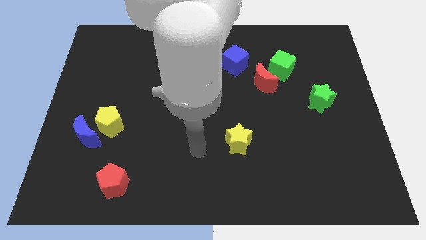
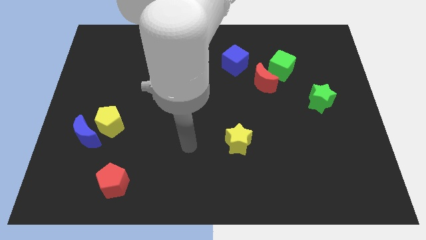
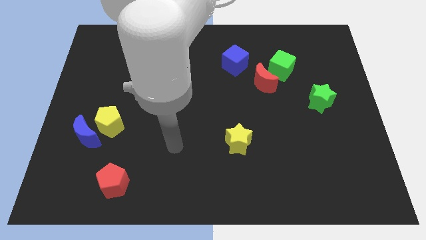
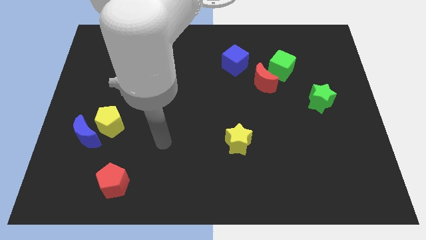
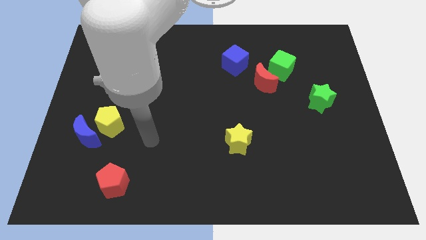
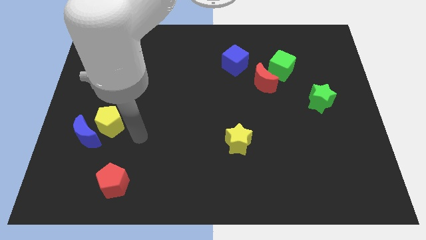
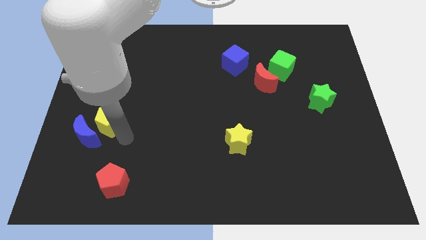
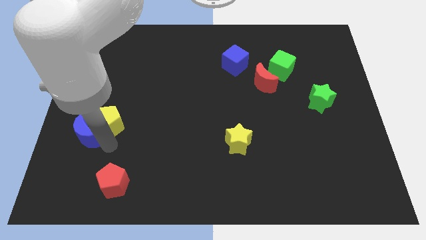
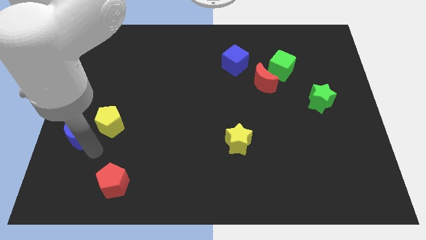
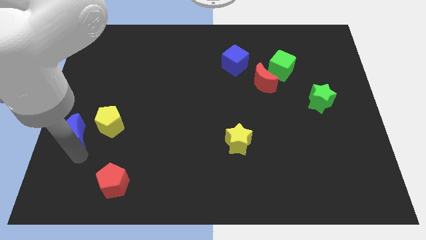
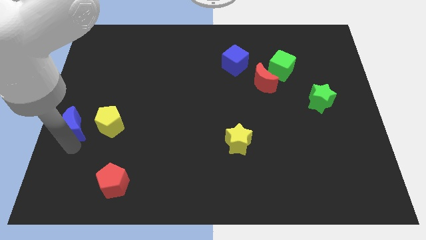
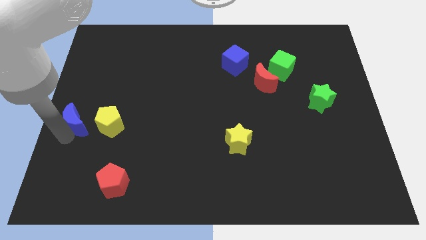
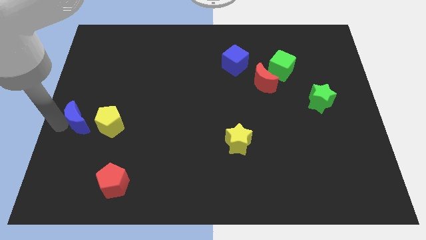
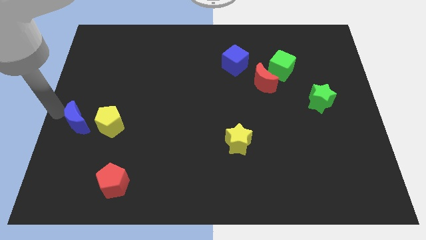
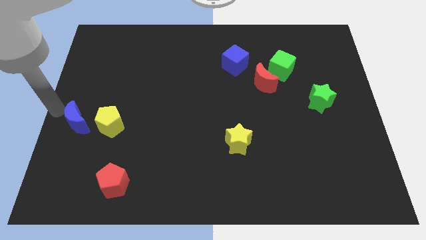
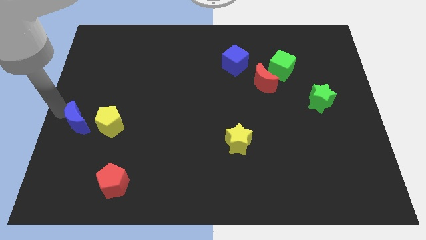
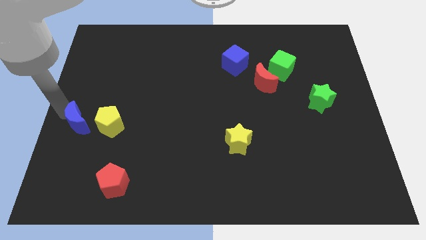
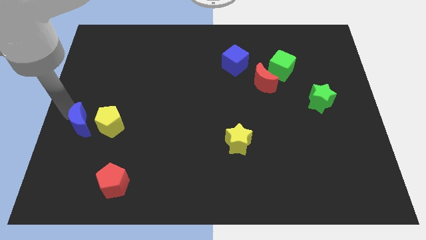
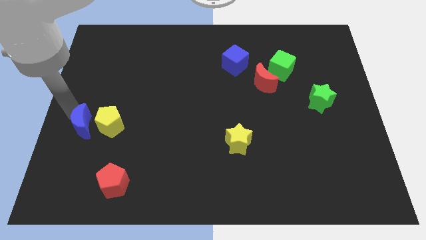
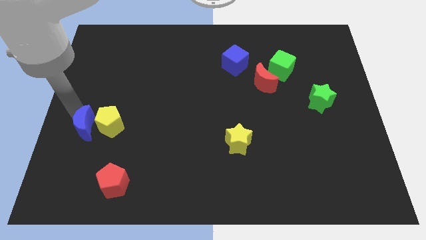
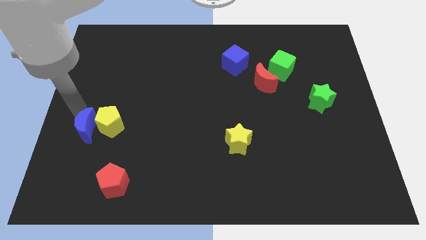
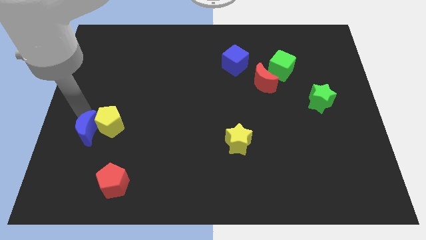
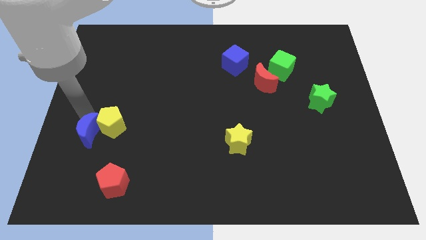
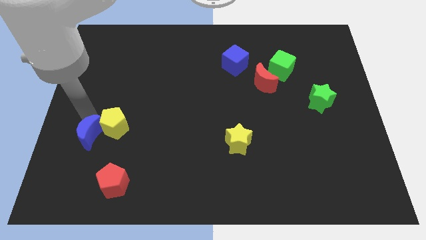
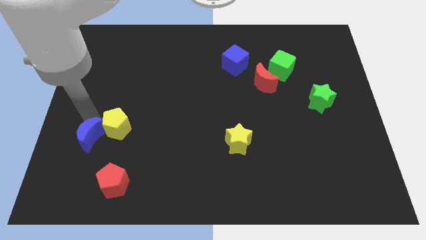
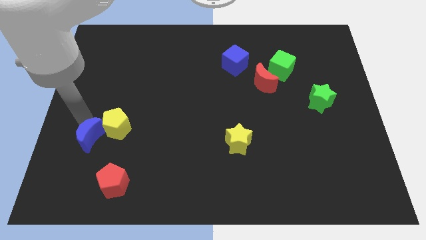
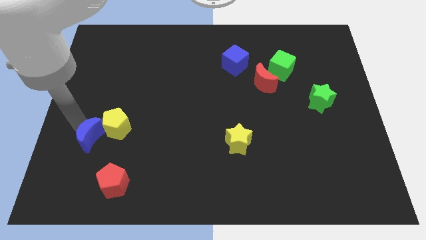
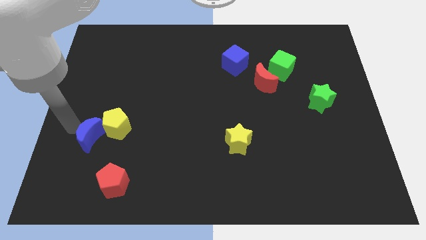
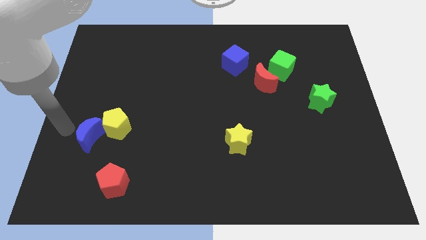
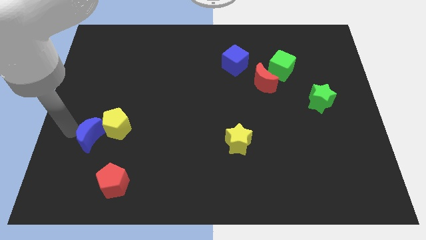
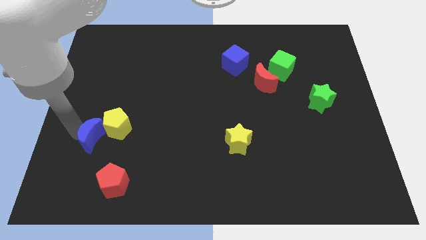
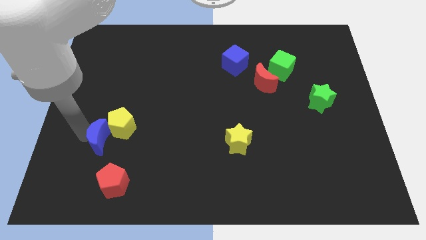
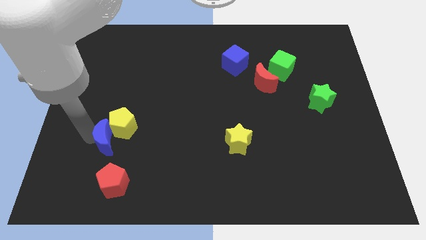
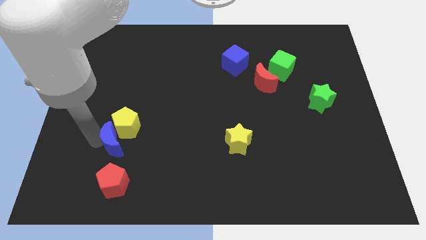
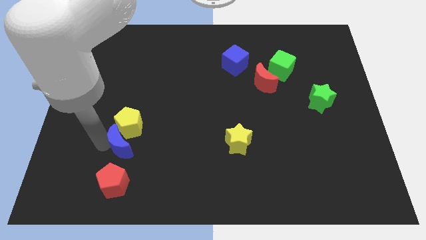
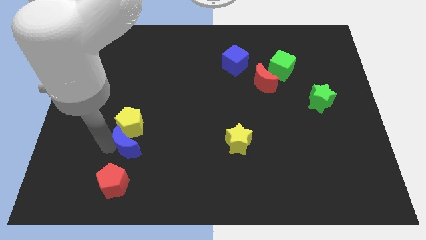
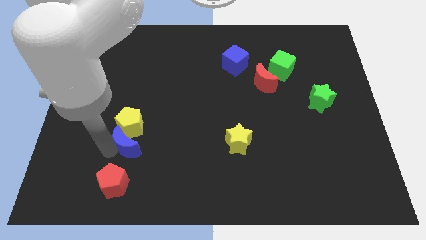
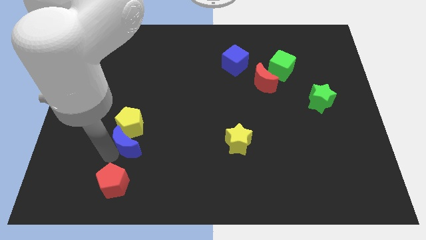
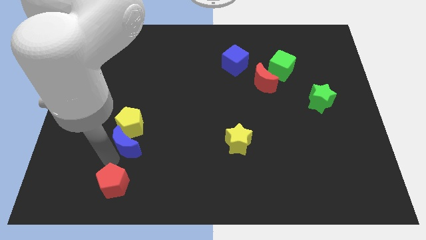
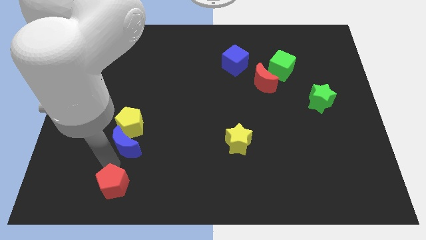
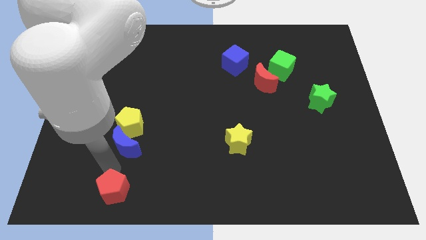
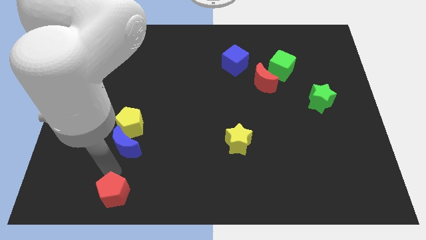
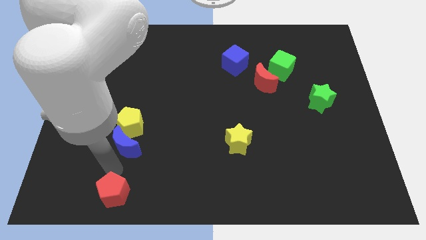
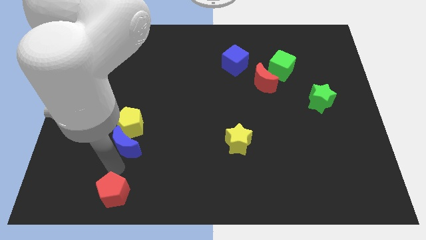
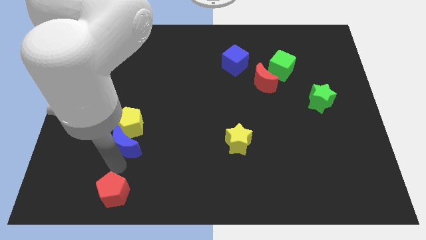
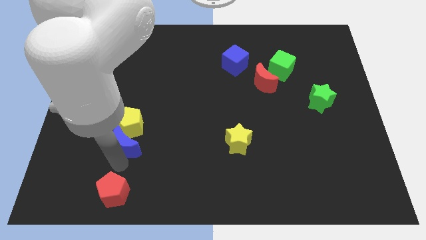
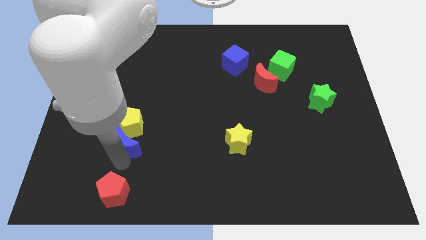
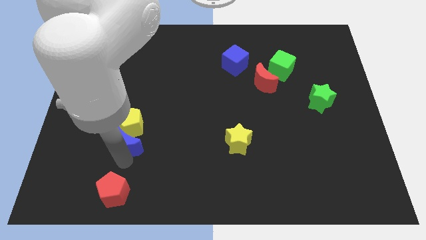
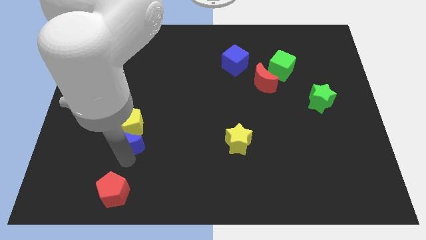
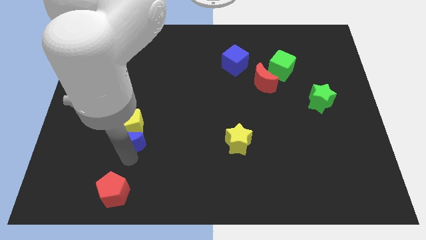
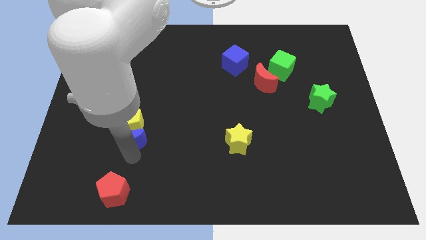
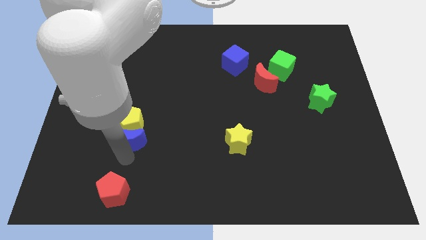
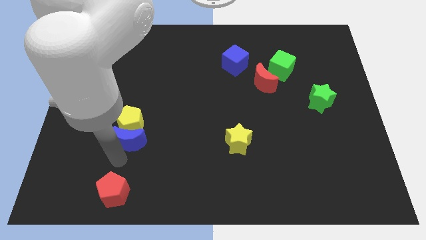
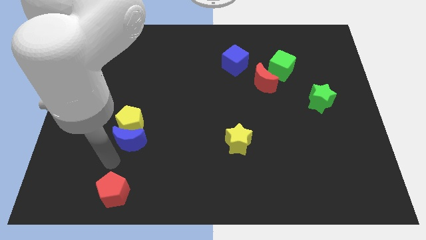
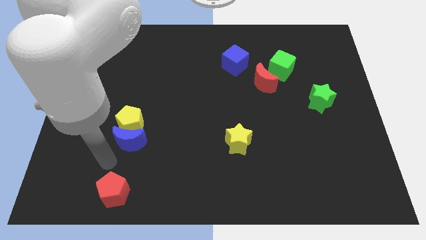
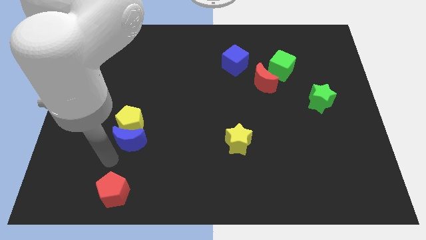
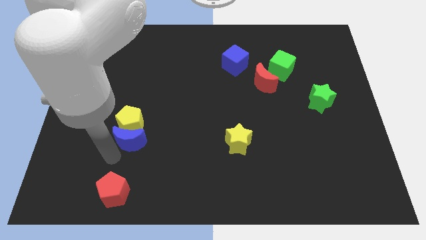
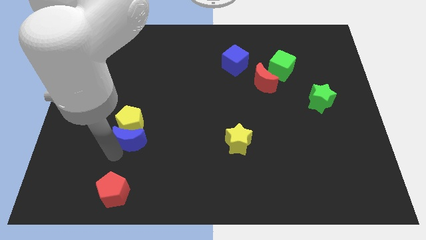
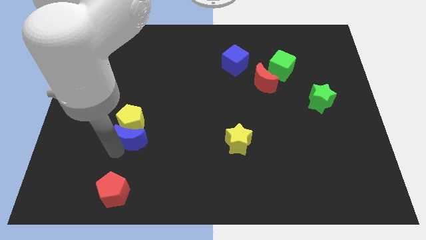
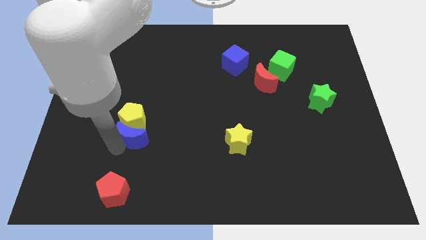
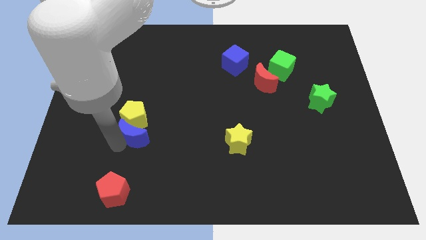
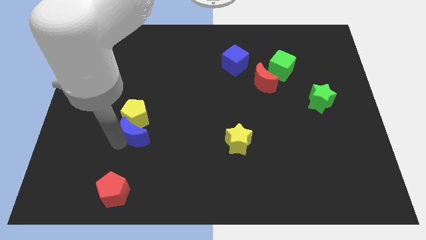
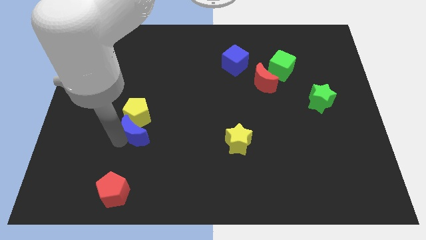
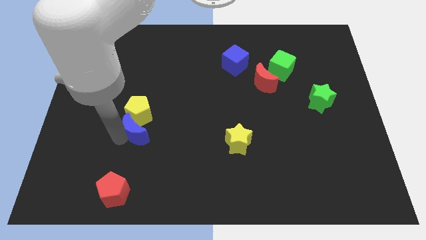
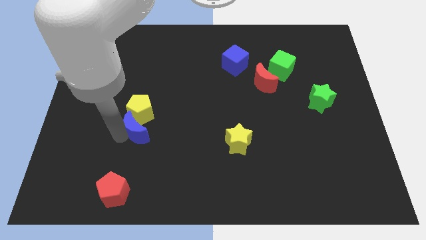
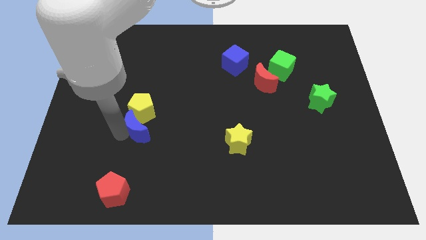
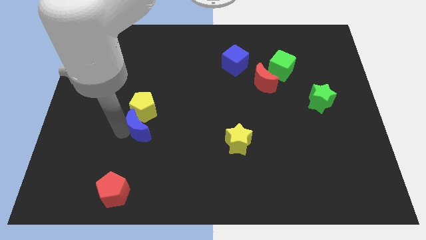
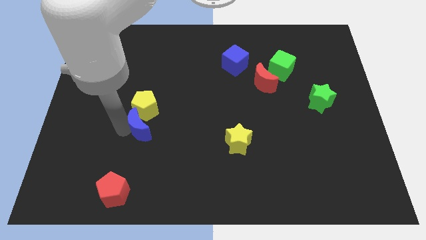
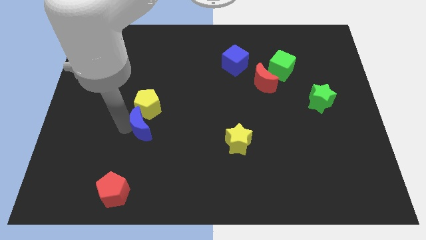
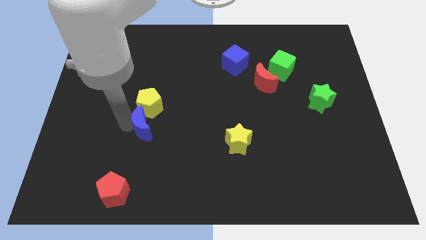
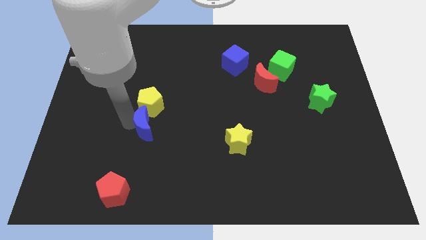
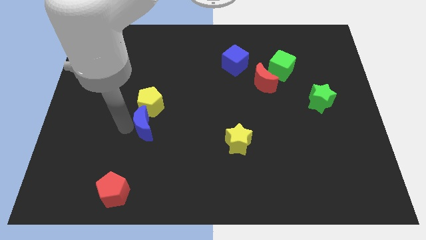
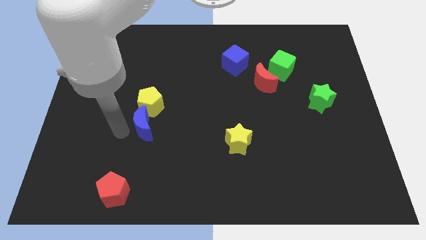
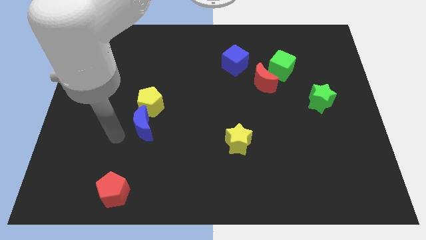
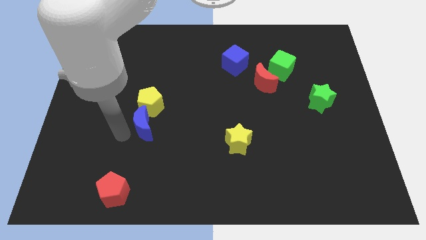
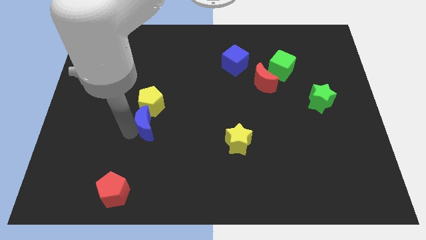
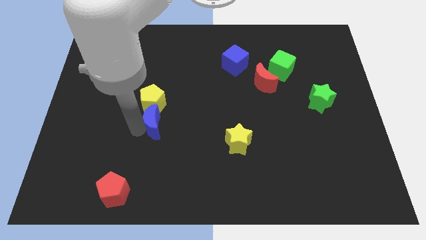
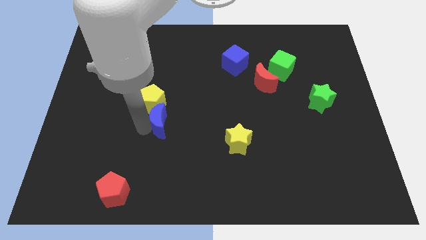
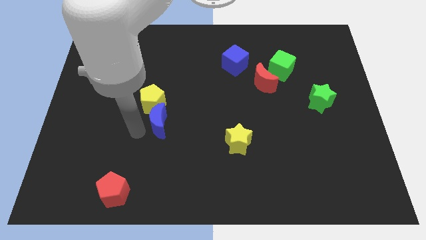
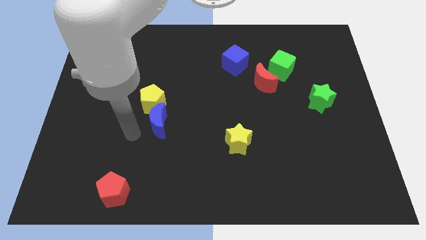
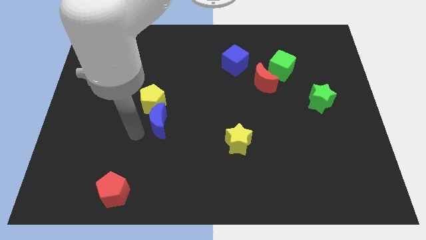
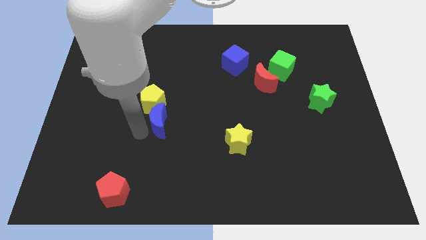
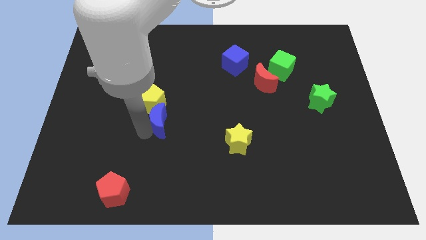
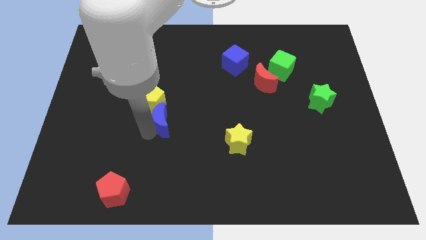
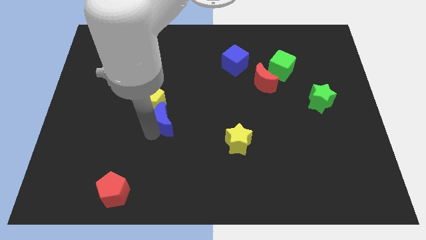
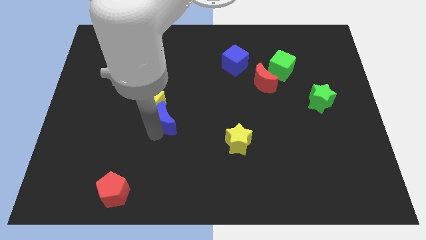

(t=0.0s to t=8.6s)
move the blue moon to the middle of the board
